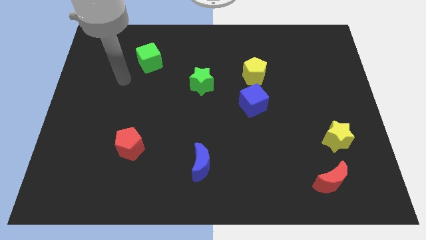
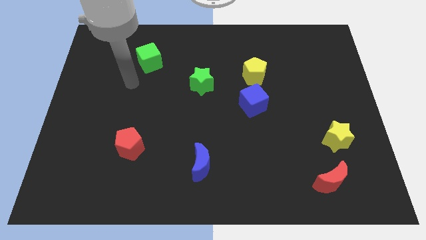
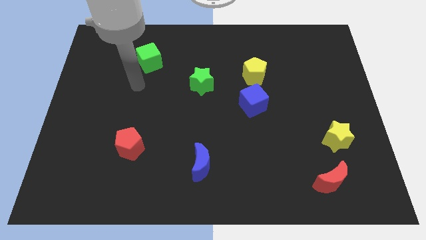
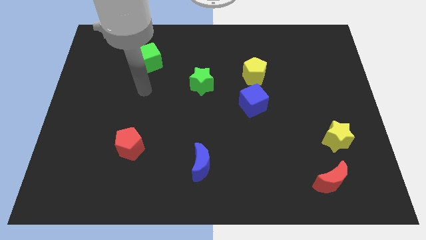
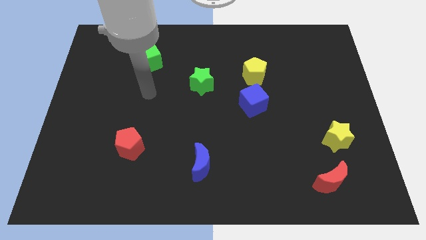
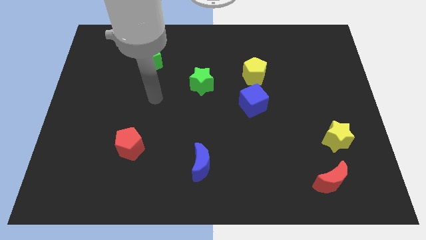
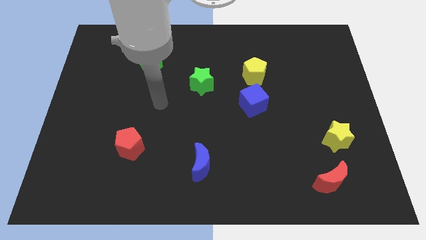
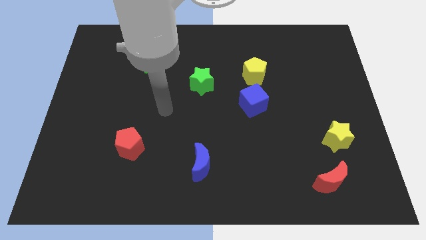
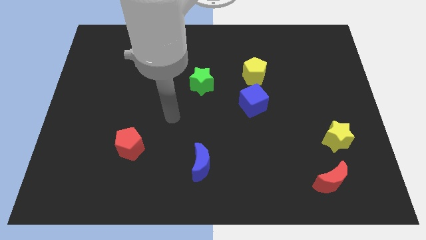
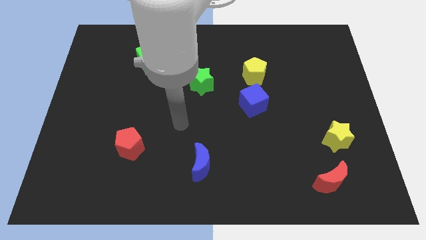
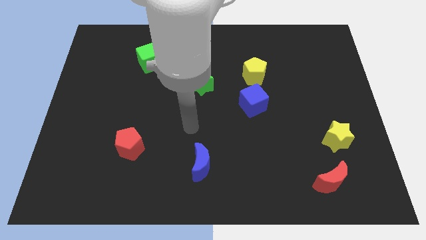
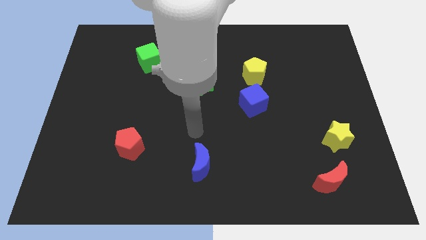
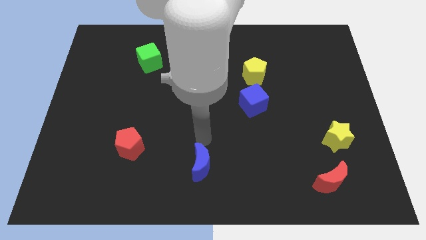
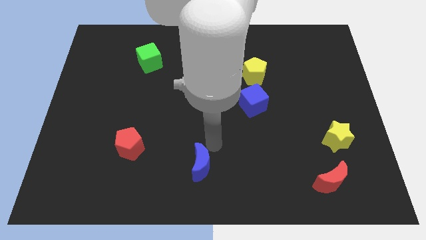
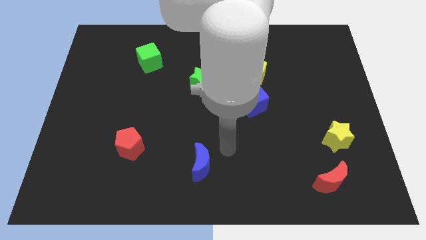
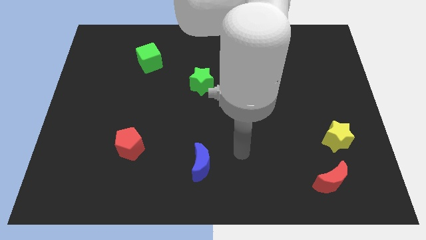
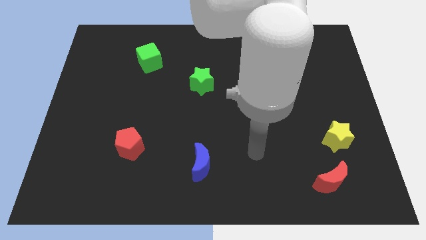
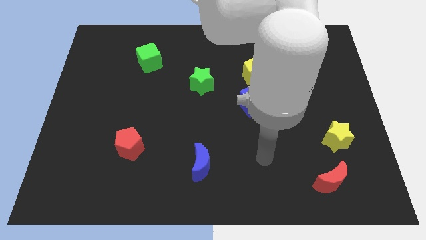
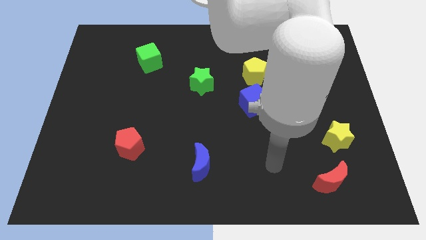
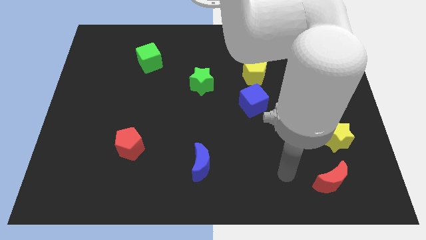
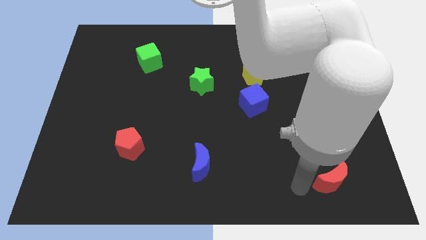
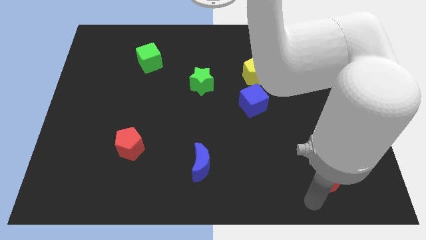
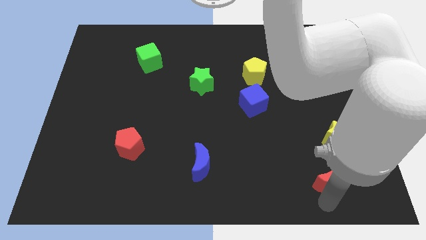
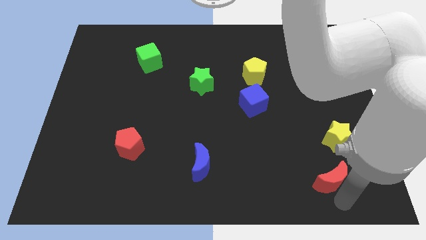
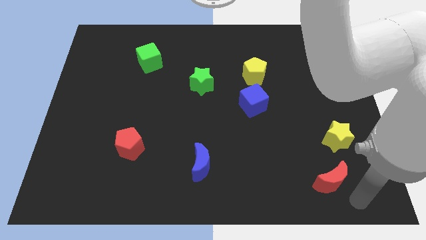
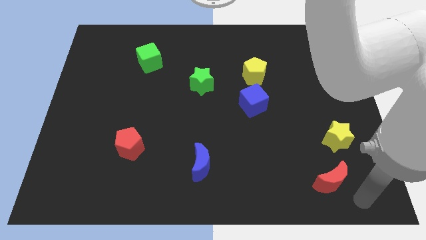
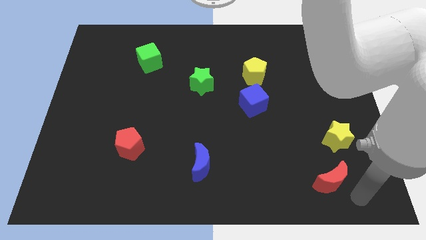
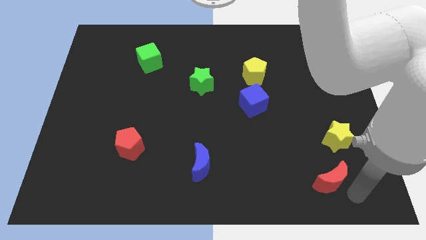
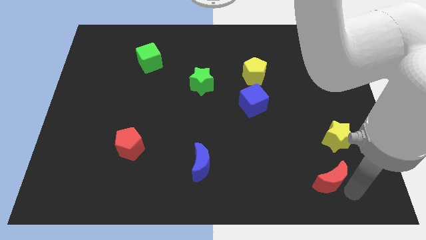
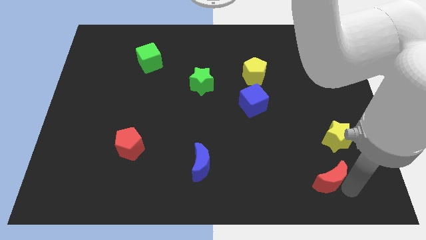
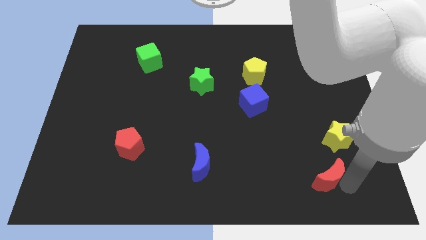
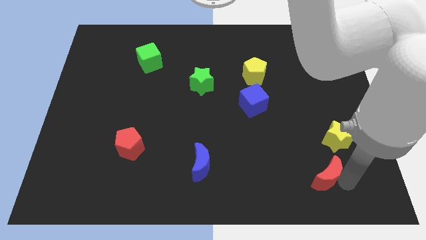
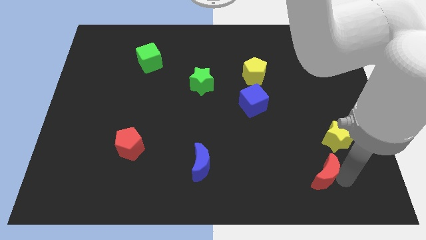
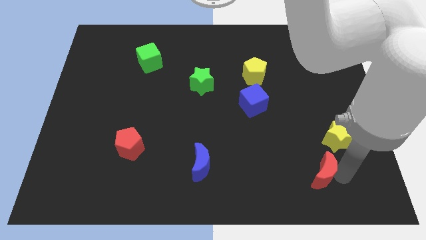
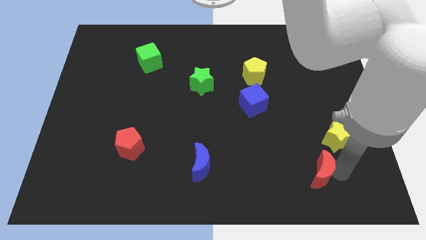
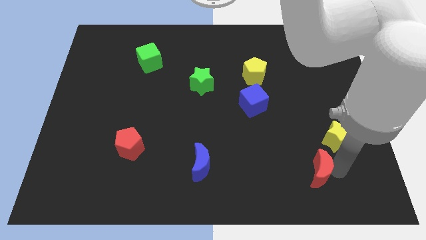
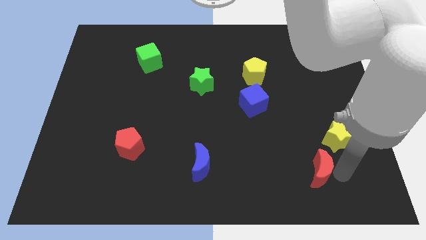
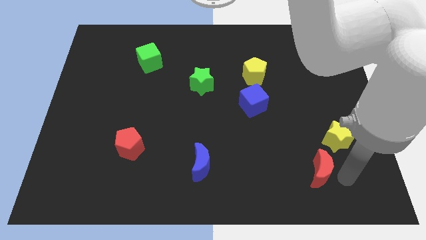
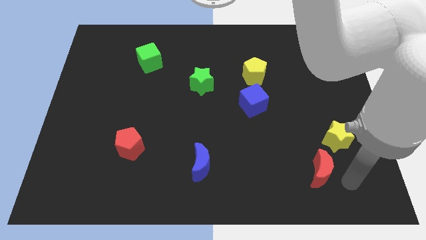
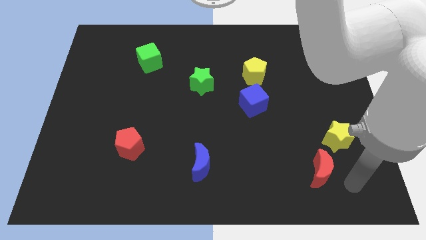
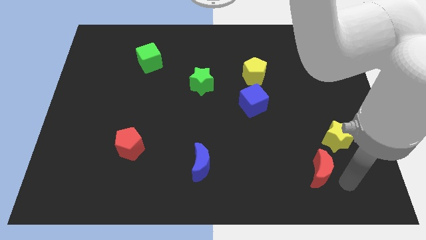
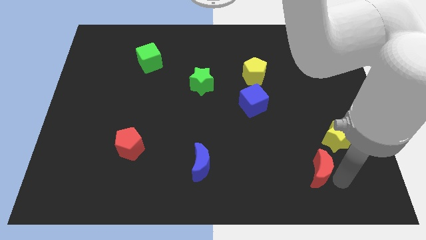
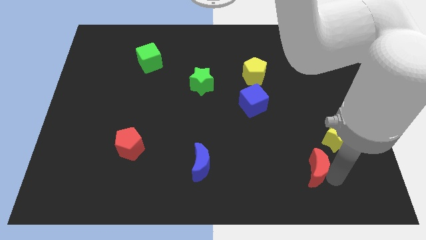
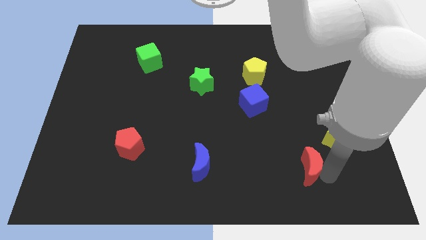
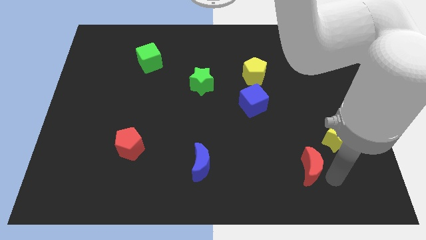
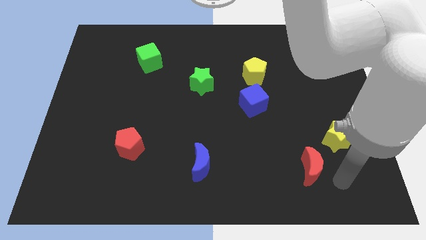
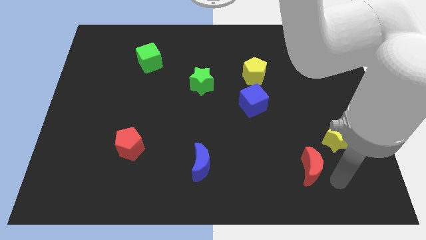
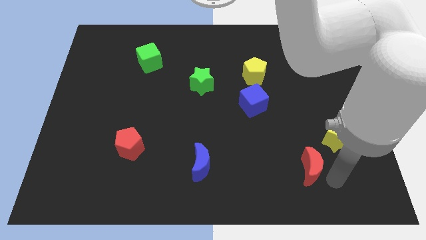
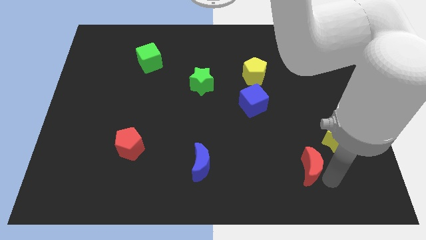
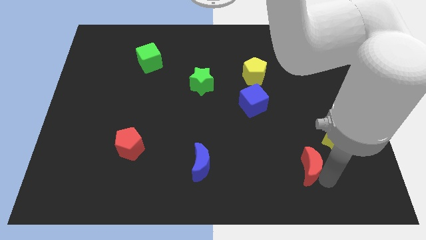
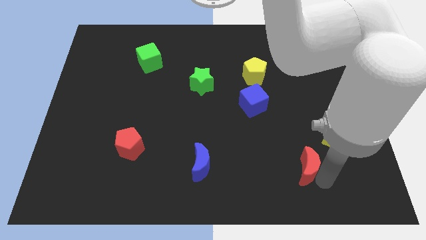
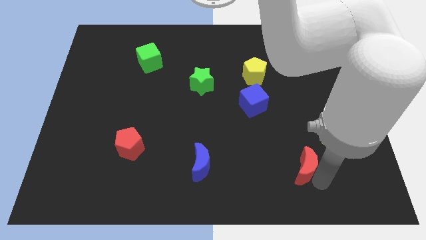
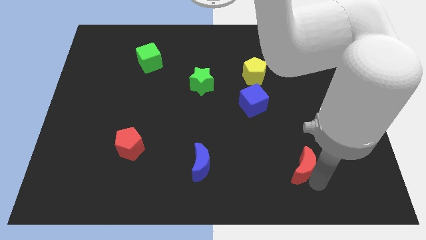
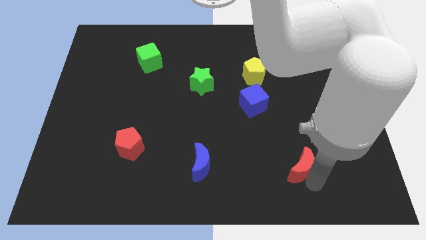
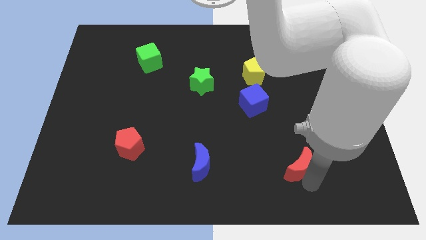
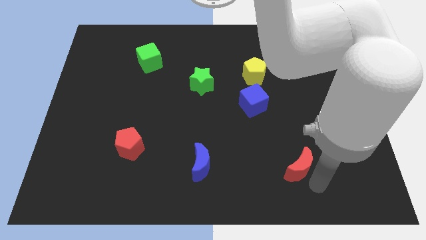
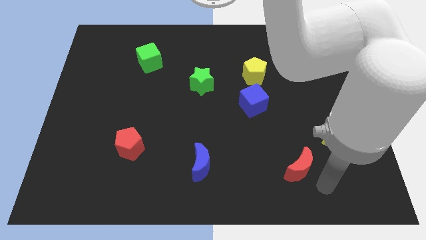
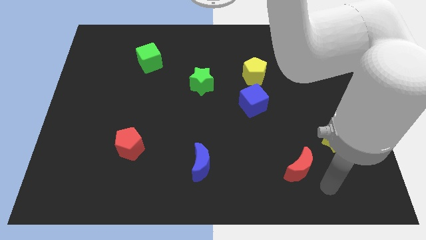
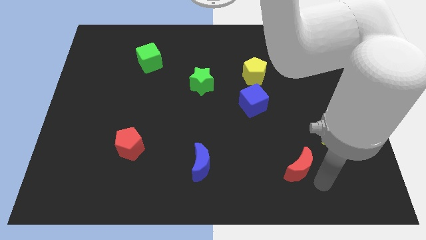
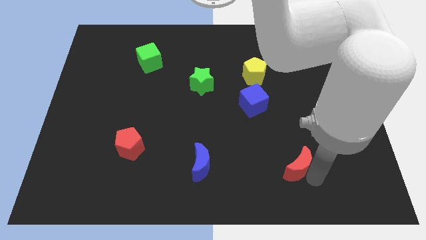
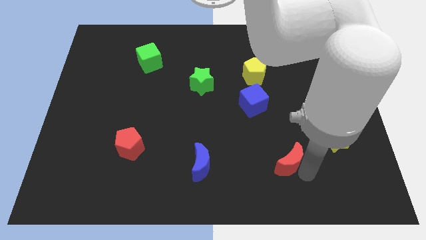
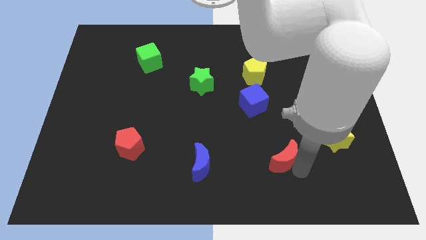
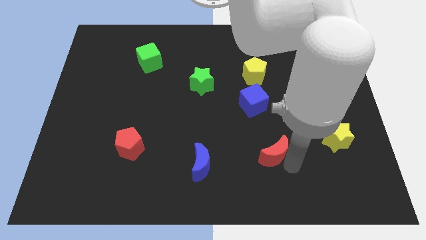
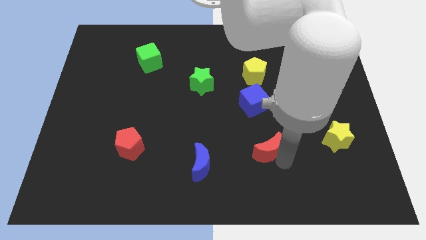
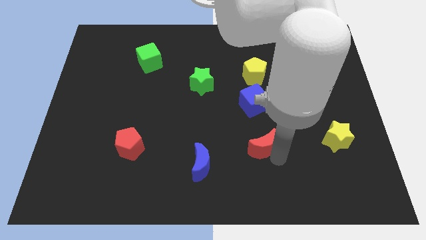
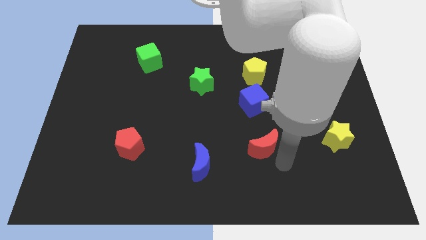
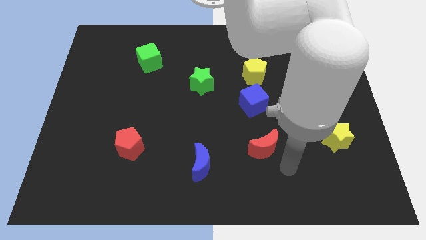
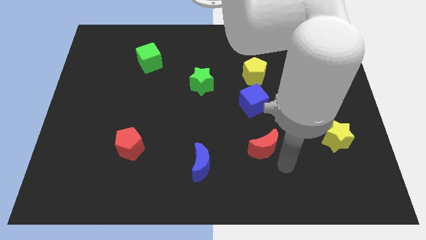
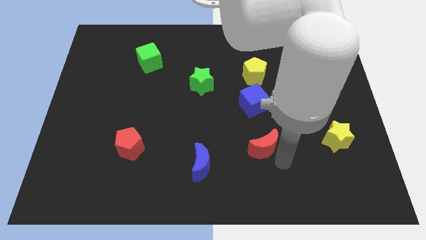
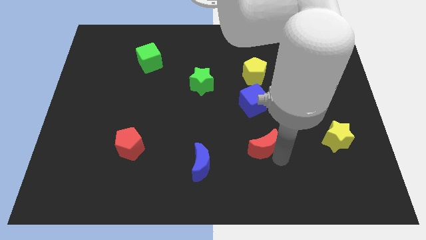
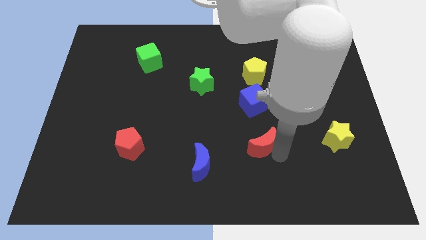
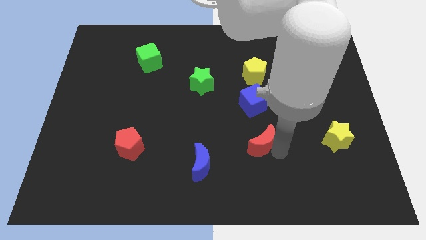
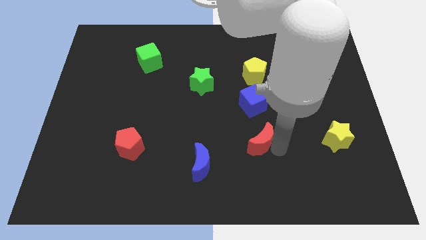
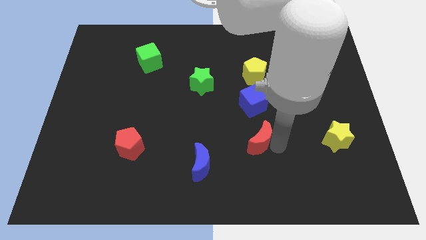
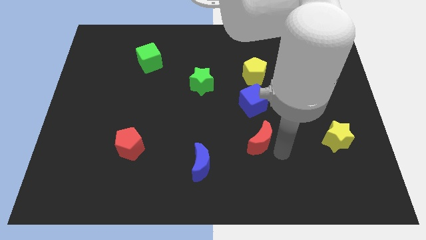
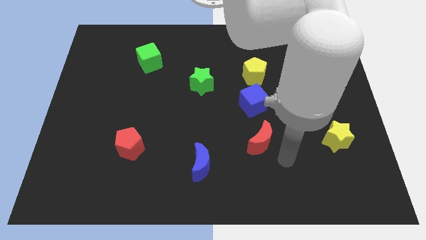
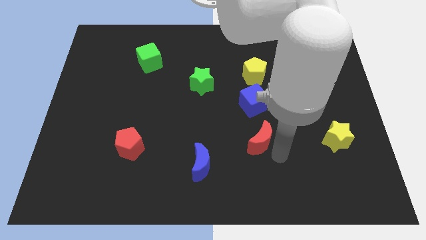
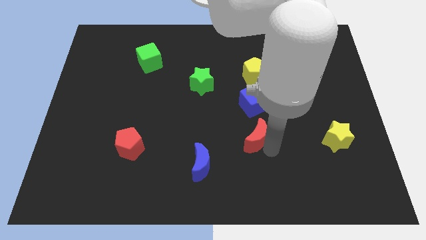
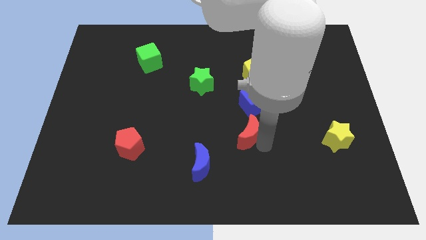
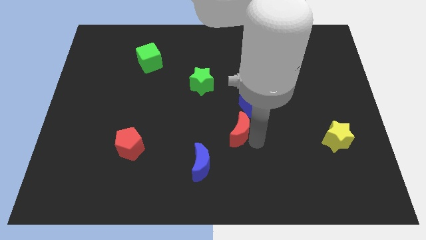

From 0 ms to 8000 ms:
put the red moon to the bottom left of the blue cube
